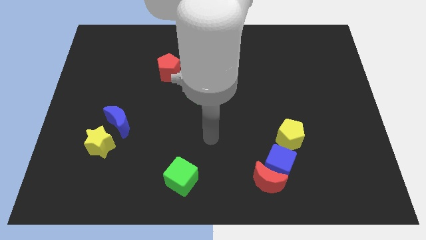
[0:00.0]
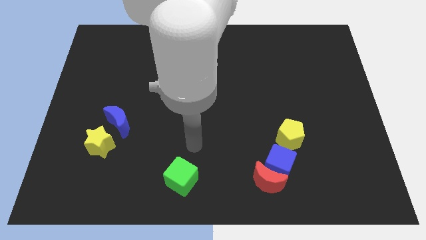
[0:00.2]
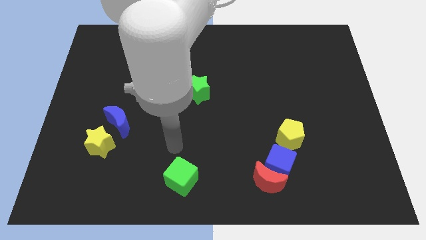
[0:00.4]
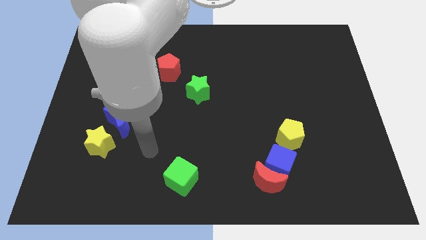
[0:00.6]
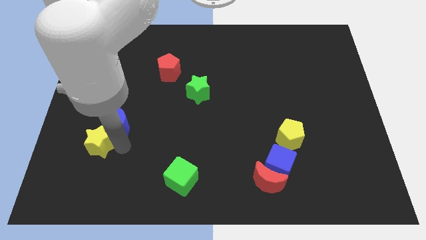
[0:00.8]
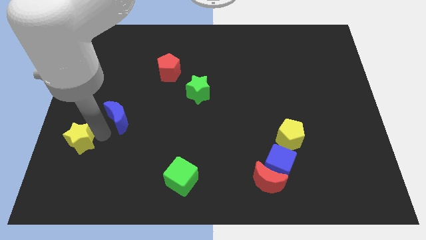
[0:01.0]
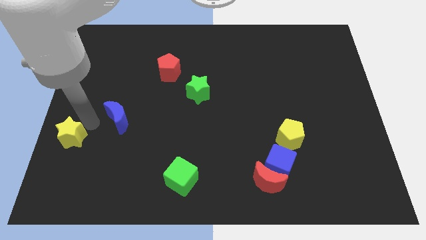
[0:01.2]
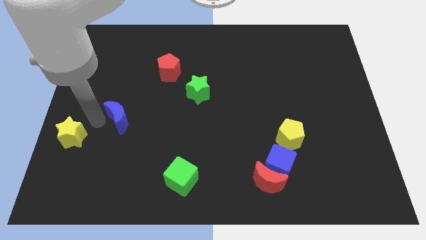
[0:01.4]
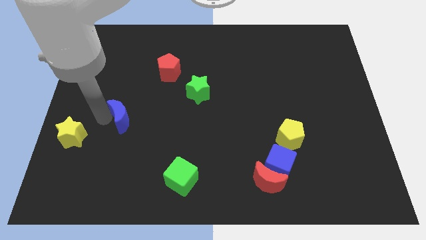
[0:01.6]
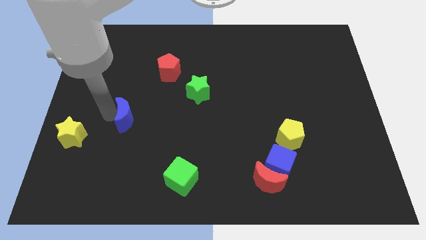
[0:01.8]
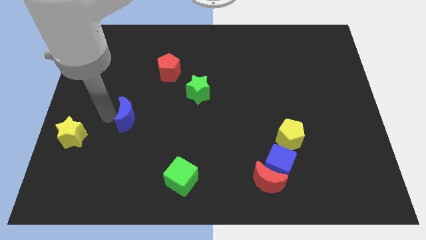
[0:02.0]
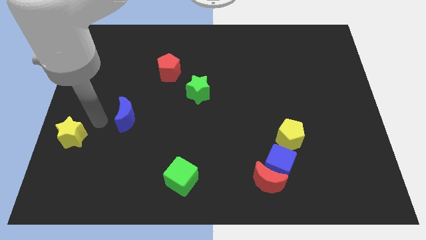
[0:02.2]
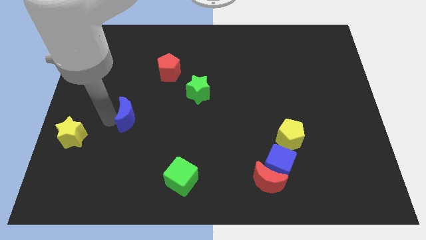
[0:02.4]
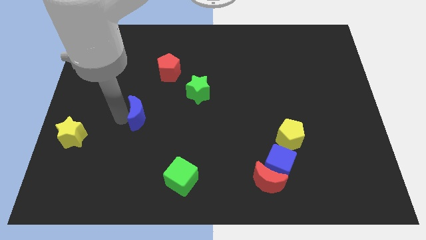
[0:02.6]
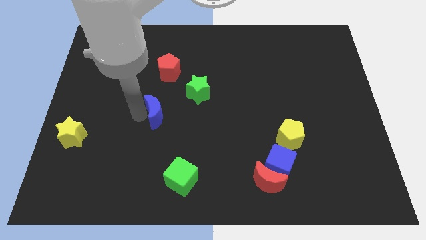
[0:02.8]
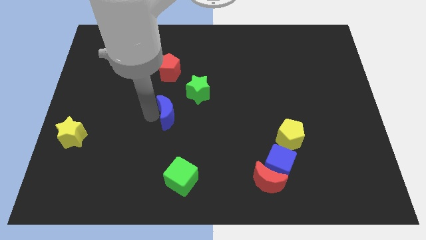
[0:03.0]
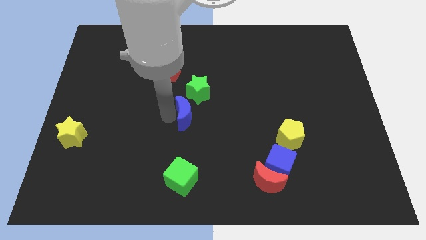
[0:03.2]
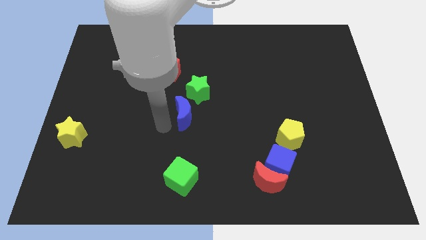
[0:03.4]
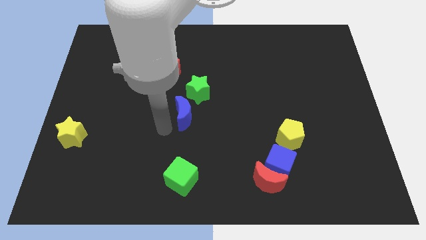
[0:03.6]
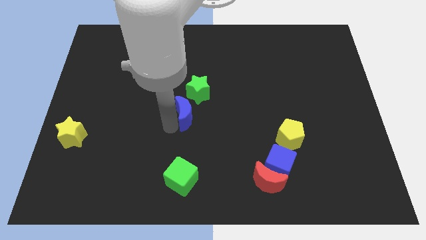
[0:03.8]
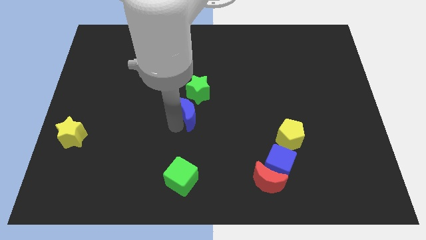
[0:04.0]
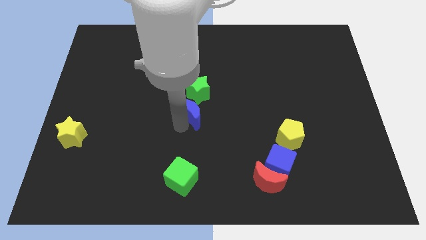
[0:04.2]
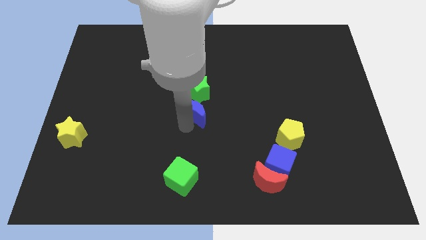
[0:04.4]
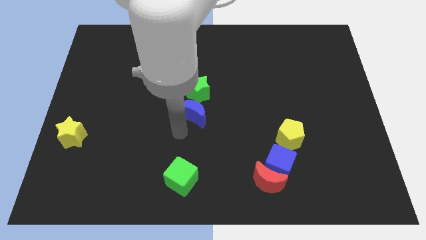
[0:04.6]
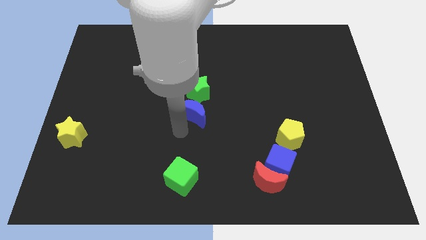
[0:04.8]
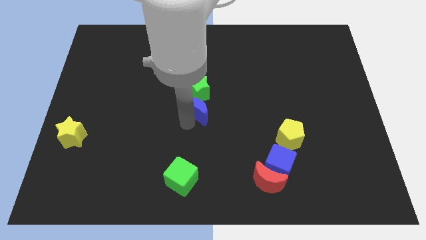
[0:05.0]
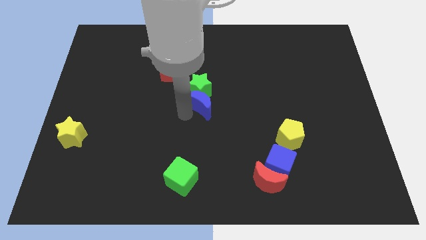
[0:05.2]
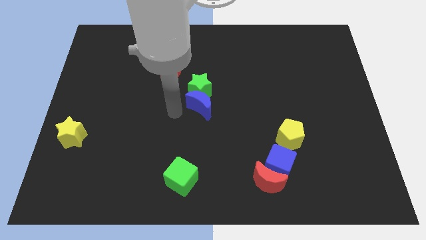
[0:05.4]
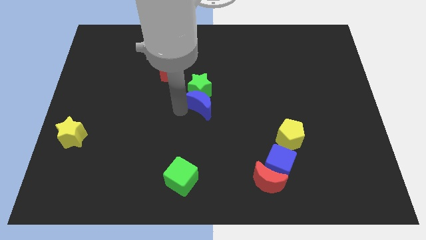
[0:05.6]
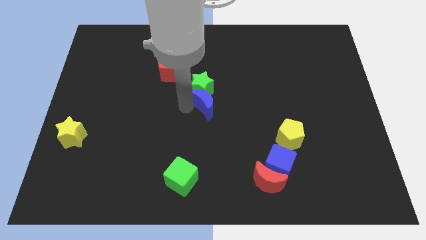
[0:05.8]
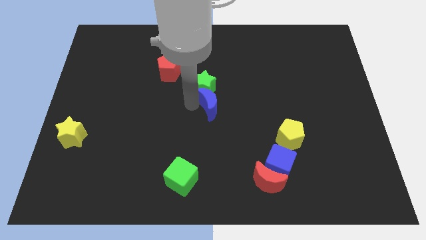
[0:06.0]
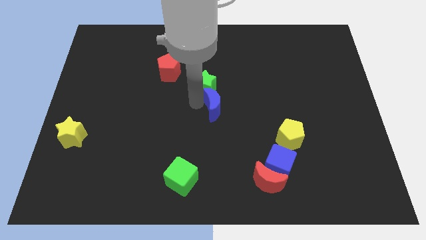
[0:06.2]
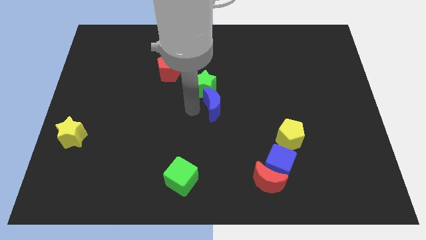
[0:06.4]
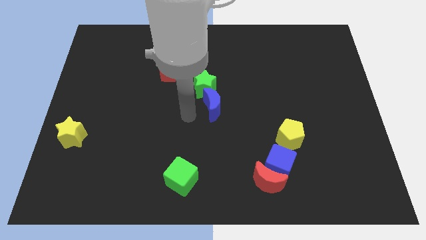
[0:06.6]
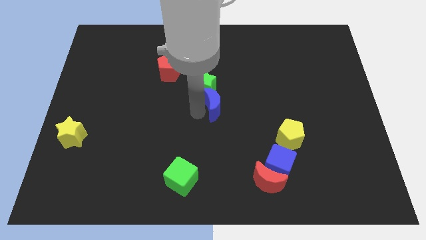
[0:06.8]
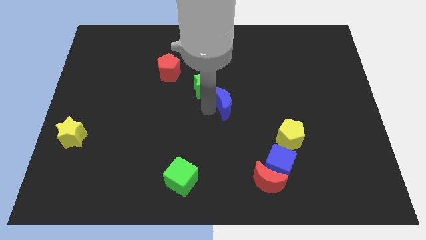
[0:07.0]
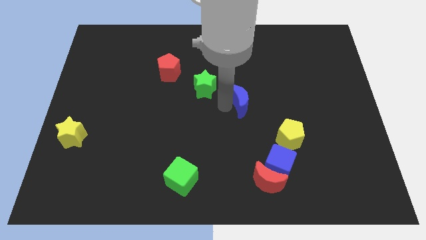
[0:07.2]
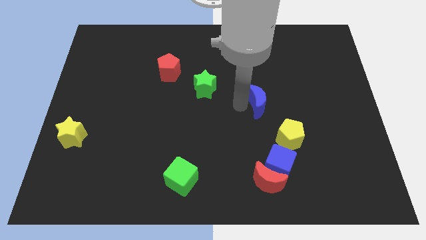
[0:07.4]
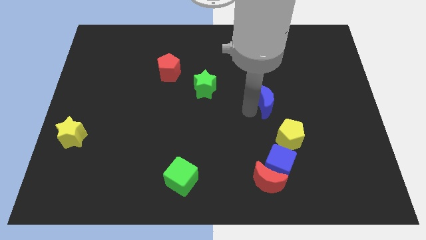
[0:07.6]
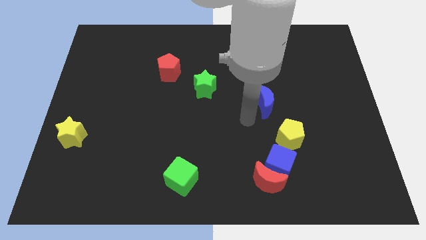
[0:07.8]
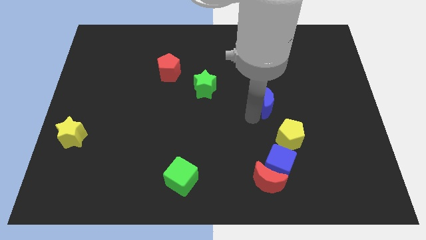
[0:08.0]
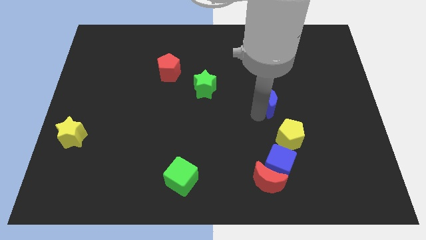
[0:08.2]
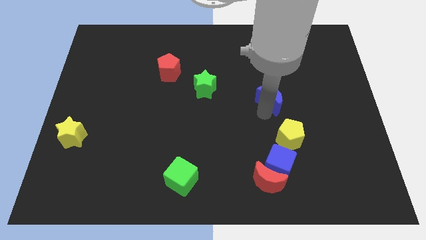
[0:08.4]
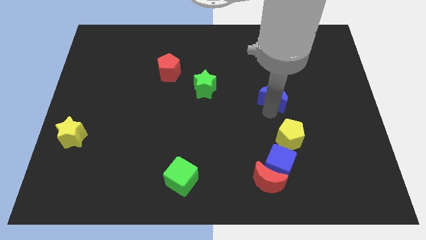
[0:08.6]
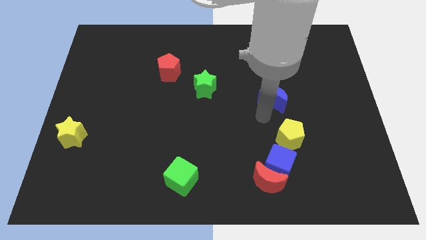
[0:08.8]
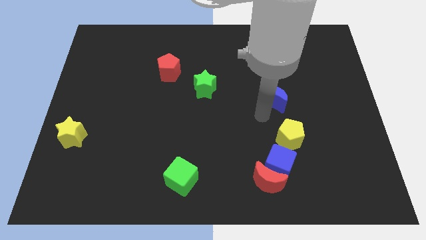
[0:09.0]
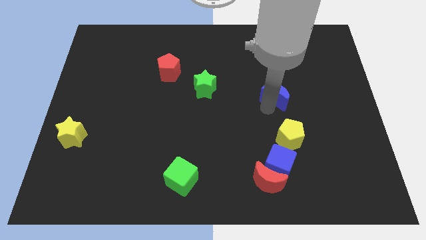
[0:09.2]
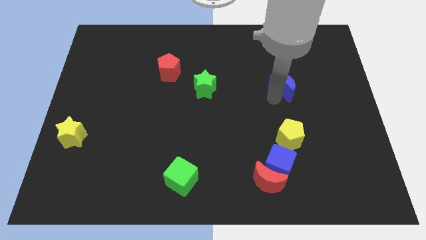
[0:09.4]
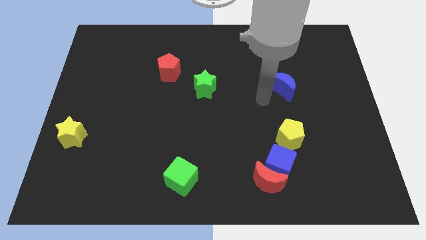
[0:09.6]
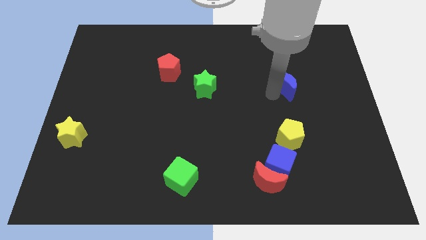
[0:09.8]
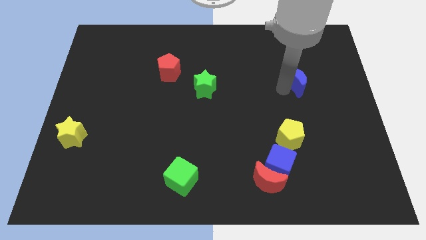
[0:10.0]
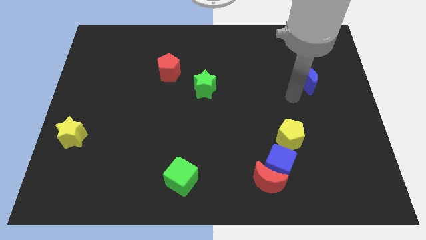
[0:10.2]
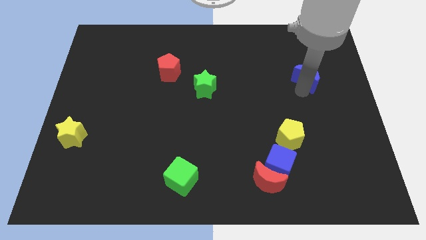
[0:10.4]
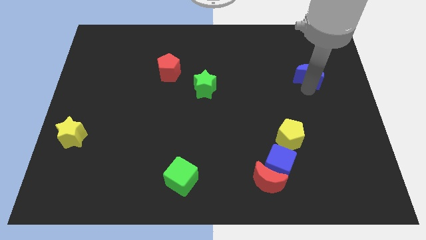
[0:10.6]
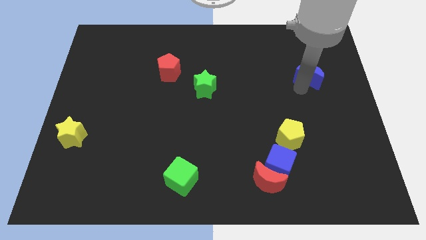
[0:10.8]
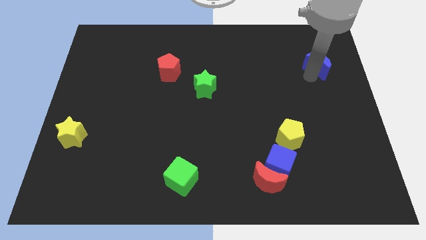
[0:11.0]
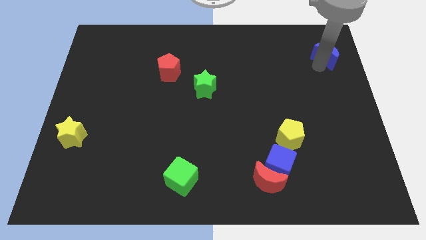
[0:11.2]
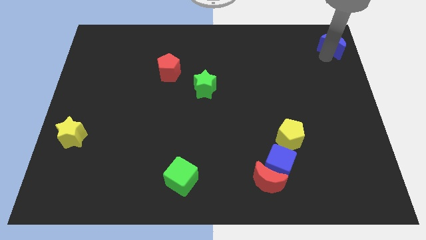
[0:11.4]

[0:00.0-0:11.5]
move the blue moon to the top right
